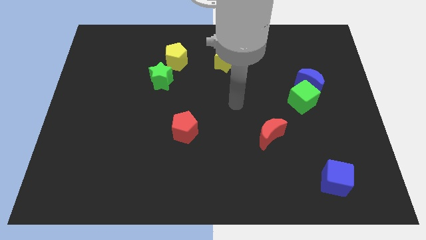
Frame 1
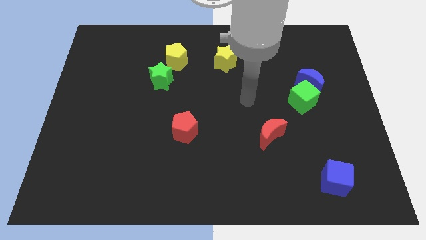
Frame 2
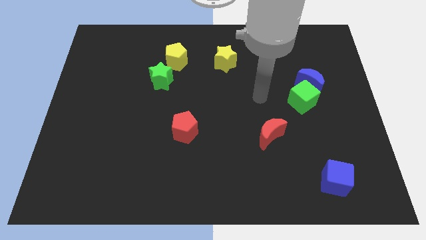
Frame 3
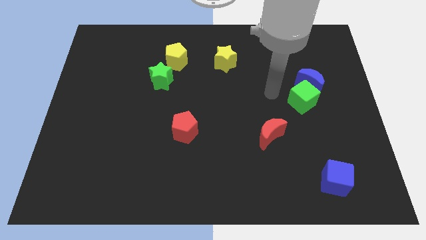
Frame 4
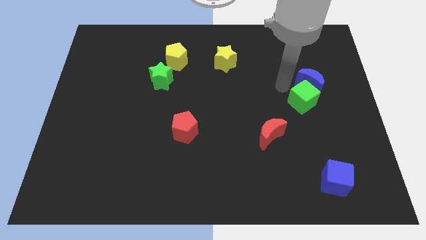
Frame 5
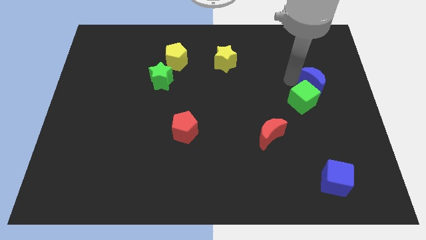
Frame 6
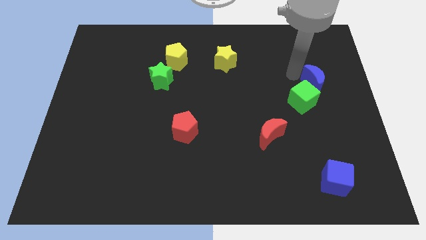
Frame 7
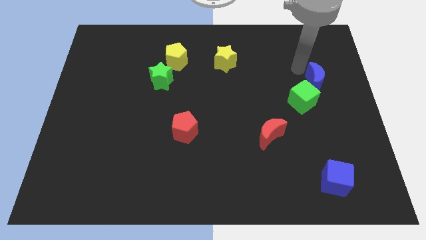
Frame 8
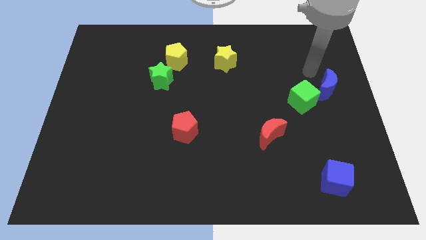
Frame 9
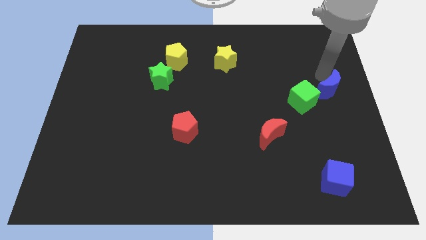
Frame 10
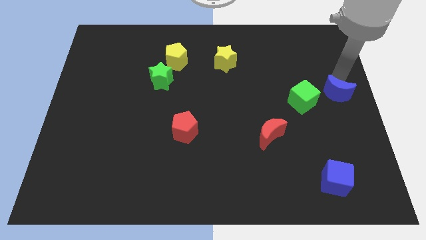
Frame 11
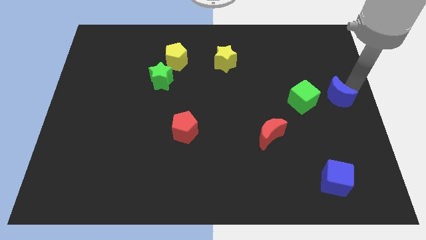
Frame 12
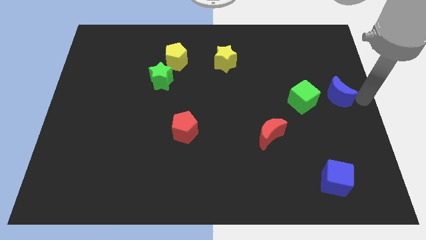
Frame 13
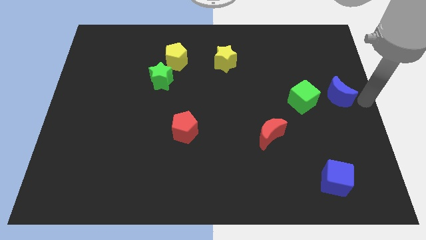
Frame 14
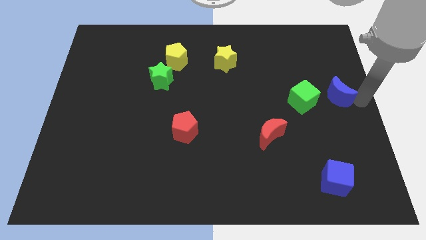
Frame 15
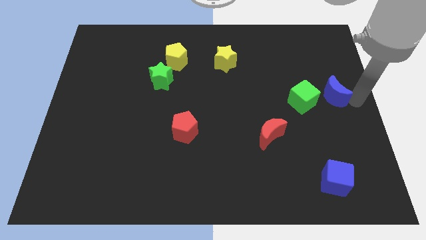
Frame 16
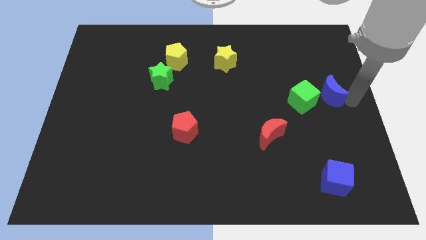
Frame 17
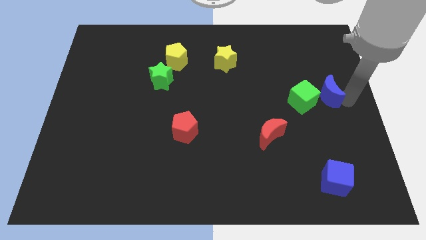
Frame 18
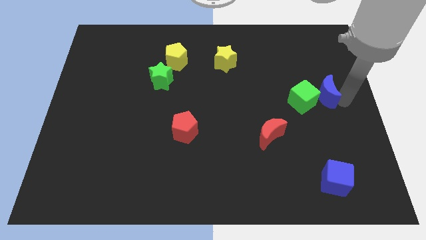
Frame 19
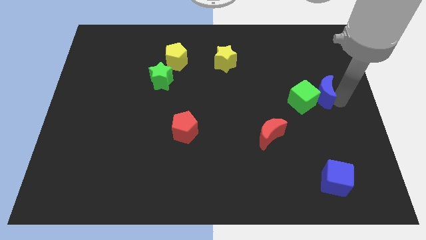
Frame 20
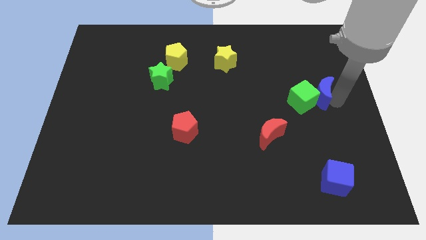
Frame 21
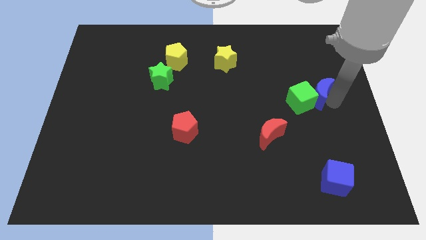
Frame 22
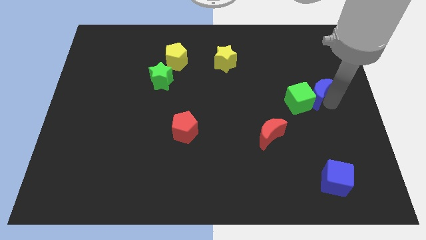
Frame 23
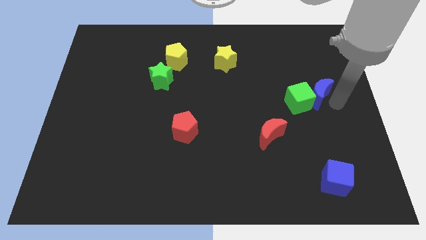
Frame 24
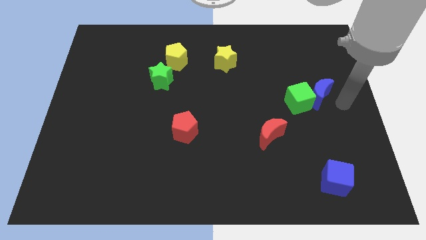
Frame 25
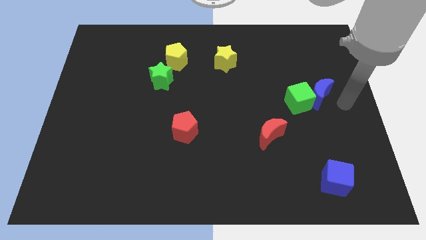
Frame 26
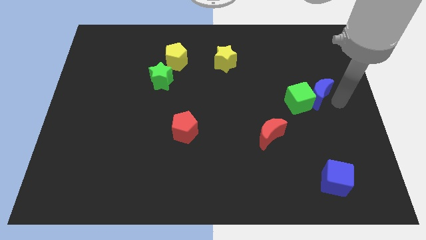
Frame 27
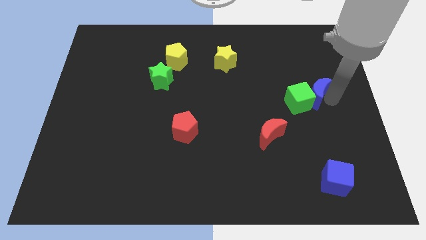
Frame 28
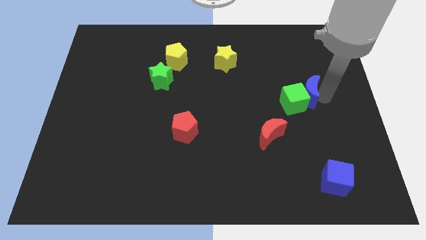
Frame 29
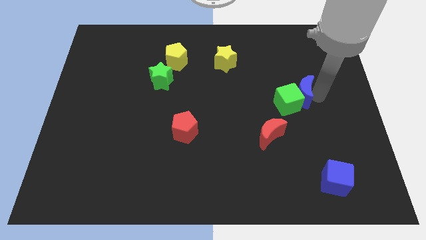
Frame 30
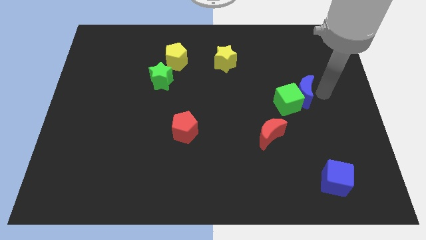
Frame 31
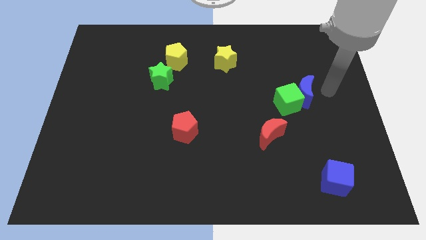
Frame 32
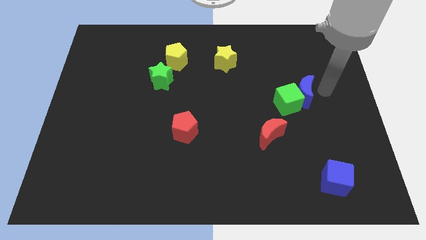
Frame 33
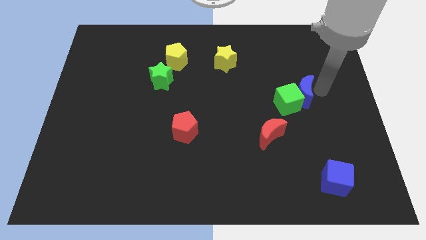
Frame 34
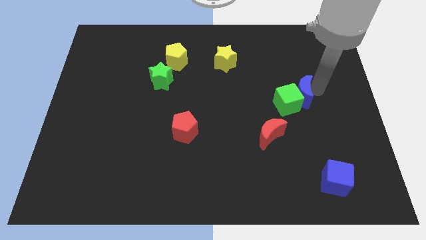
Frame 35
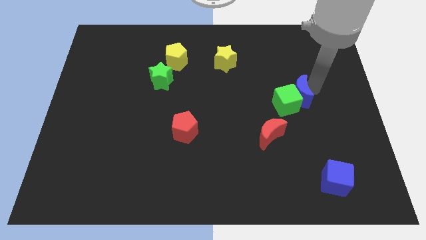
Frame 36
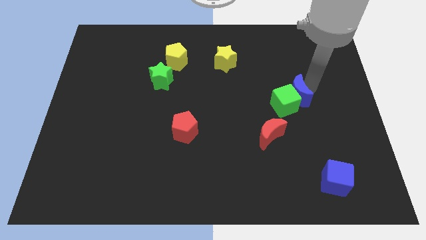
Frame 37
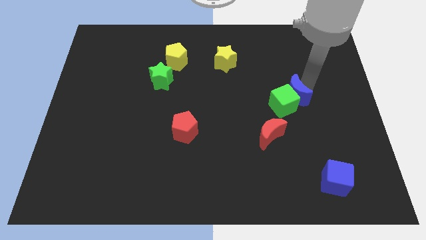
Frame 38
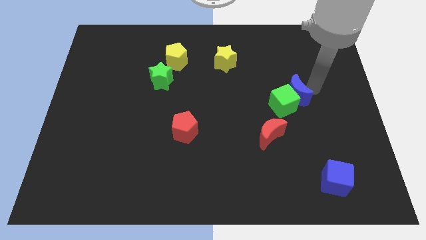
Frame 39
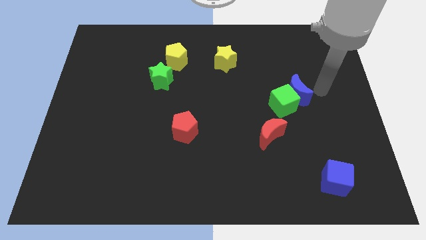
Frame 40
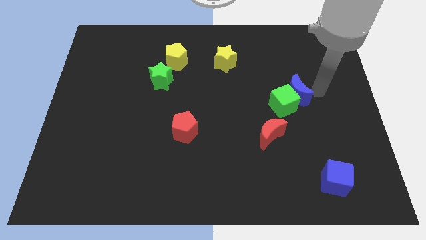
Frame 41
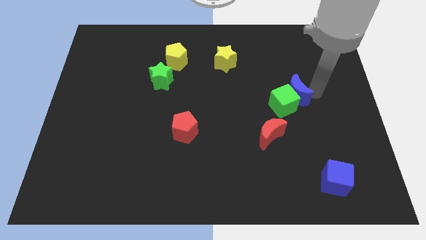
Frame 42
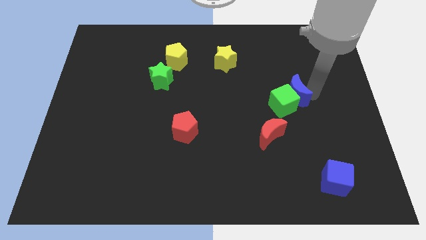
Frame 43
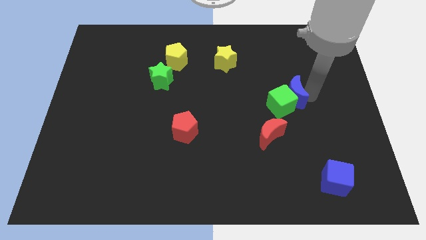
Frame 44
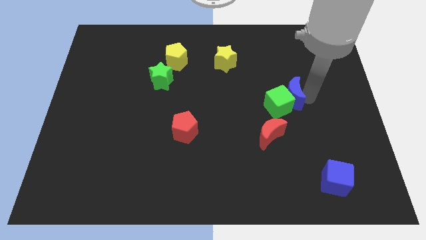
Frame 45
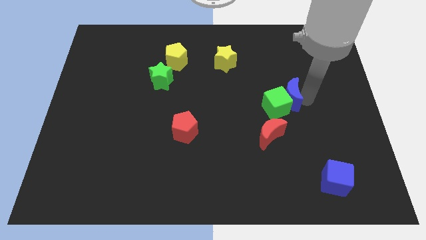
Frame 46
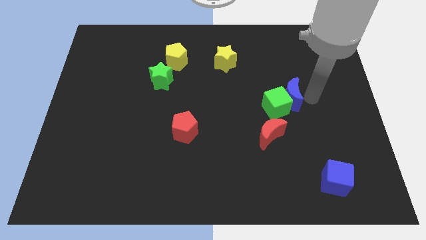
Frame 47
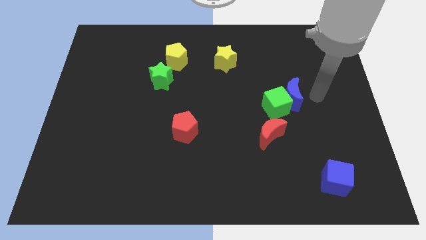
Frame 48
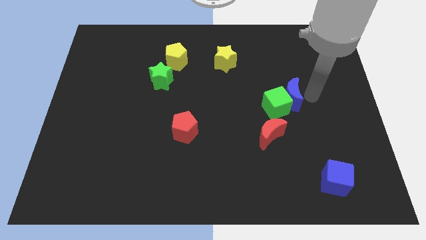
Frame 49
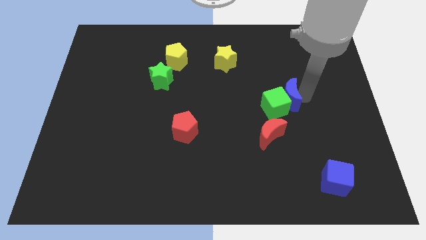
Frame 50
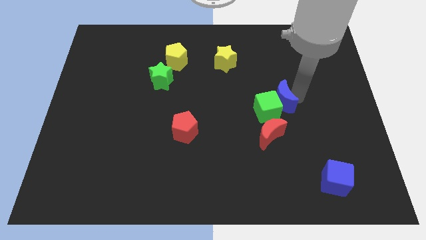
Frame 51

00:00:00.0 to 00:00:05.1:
push the blue moon above the red moon

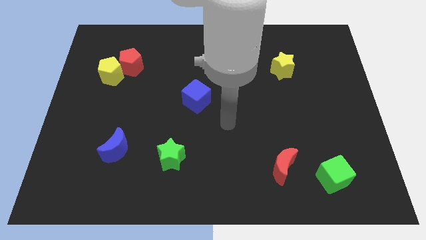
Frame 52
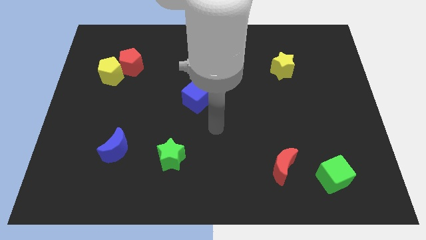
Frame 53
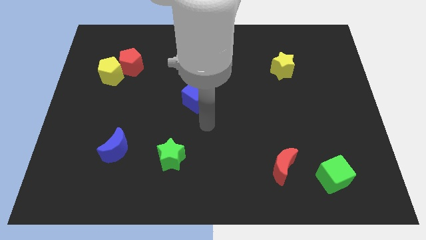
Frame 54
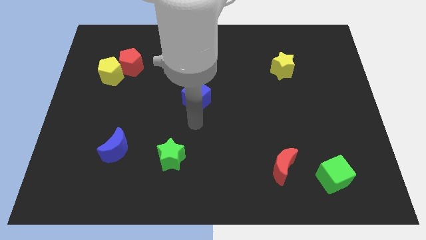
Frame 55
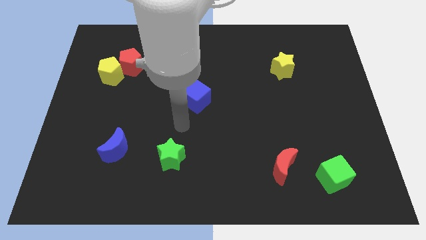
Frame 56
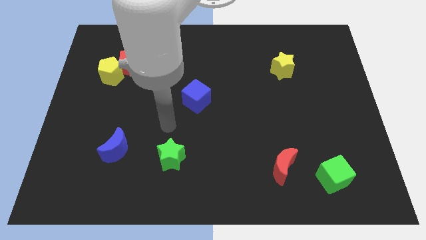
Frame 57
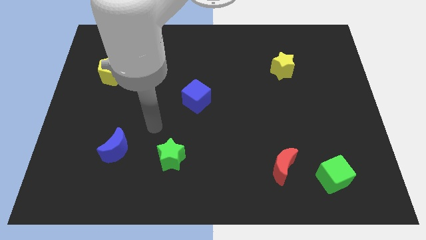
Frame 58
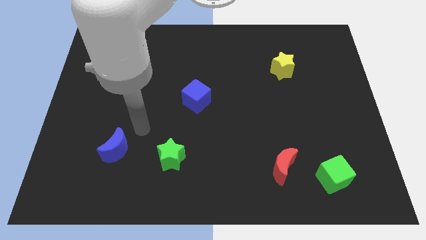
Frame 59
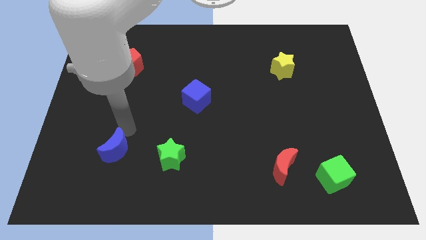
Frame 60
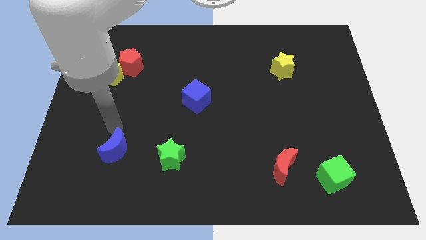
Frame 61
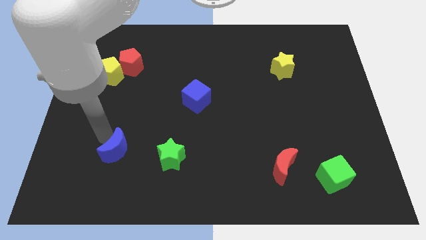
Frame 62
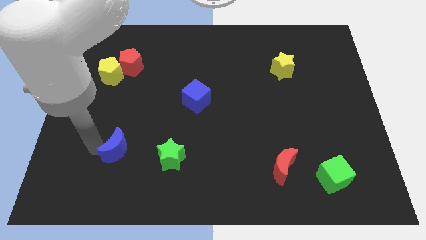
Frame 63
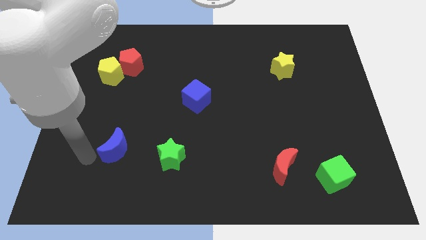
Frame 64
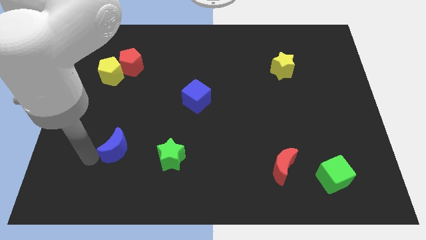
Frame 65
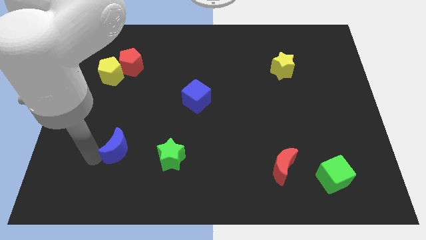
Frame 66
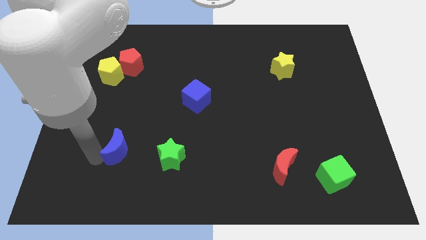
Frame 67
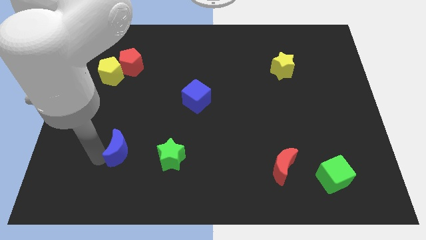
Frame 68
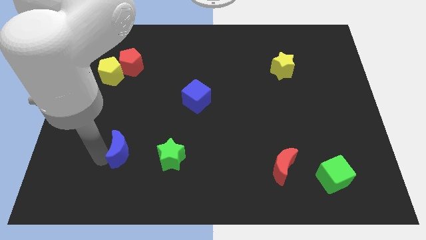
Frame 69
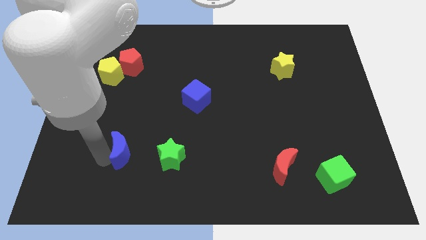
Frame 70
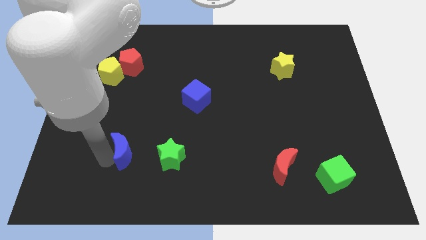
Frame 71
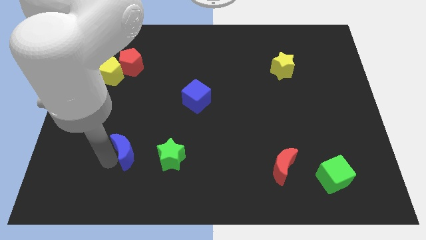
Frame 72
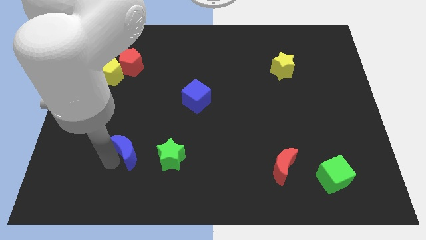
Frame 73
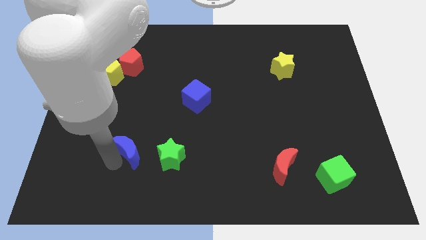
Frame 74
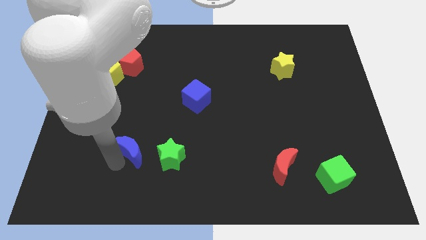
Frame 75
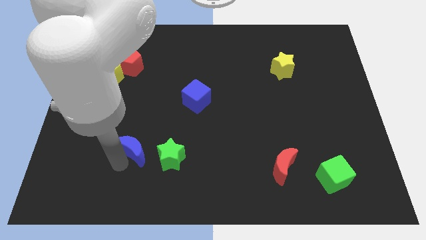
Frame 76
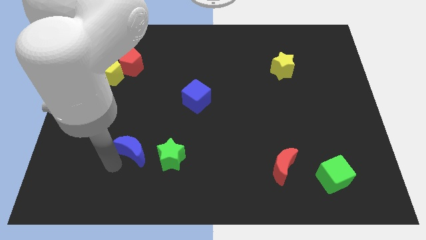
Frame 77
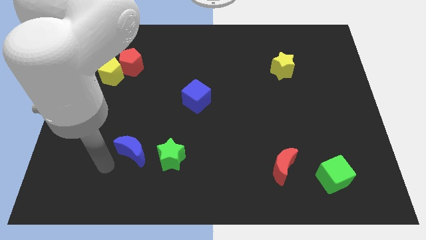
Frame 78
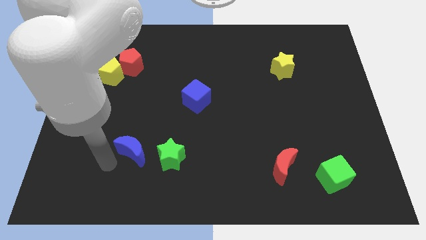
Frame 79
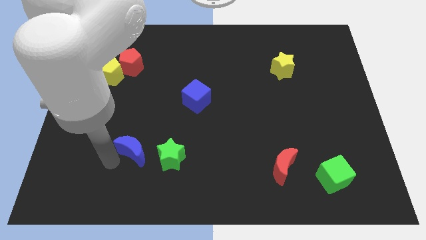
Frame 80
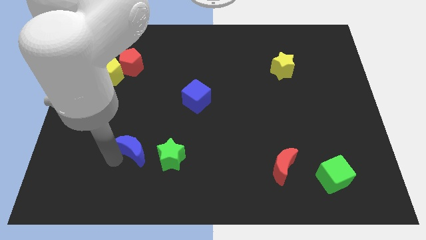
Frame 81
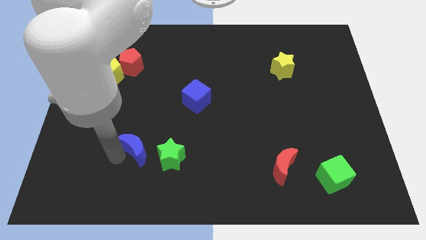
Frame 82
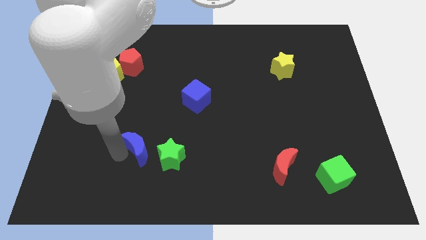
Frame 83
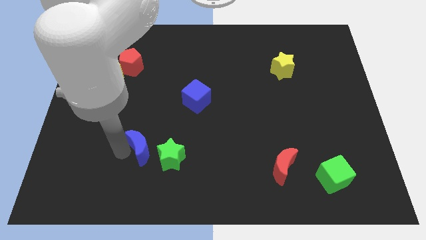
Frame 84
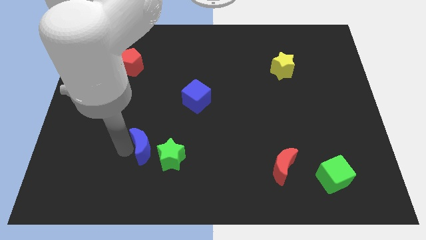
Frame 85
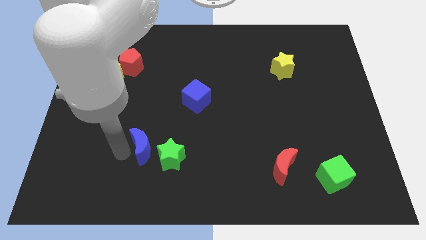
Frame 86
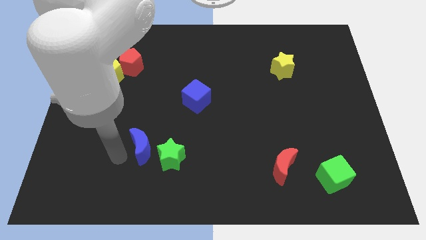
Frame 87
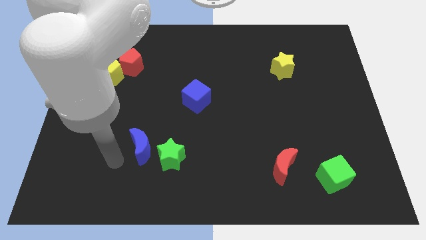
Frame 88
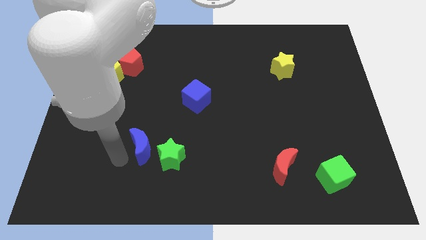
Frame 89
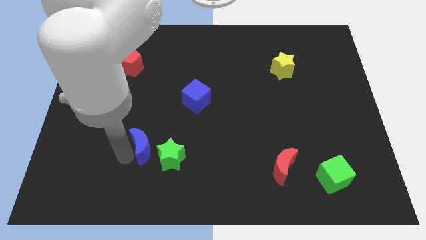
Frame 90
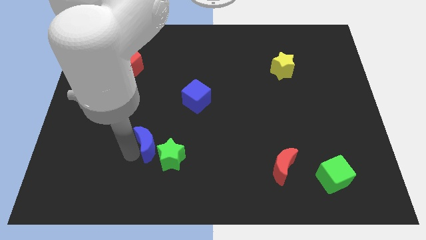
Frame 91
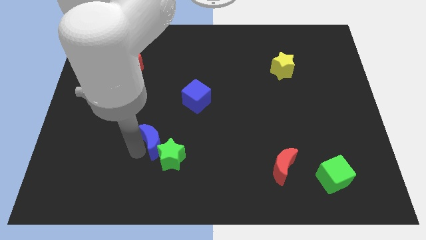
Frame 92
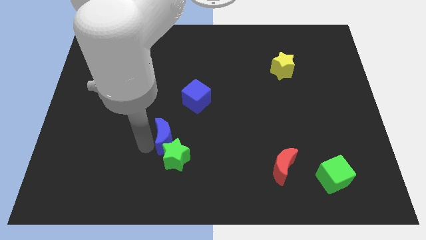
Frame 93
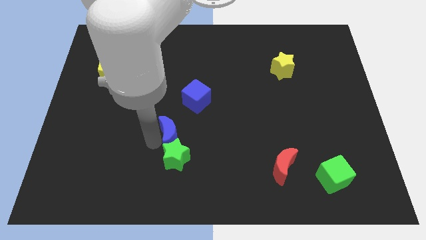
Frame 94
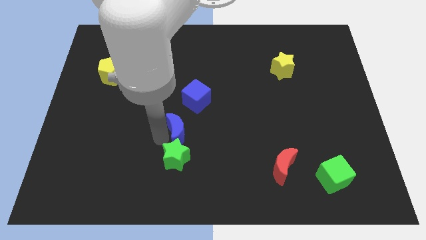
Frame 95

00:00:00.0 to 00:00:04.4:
put the blue moon to the bottom side of the blue cube
